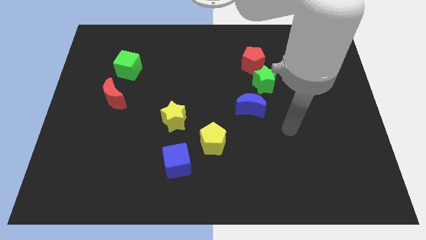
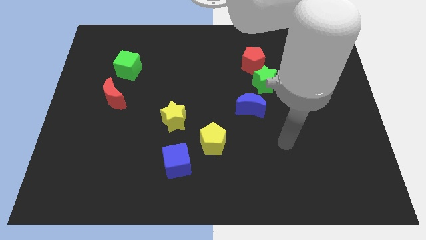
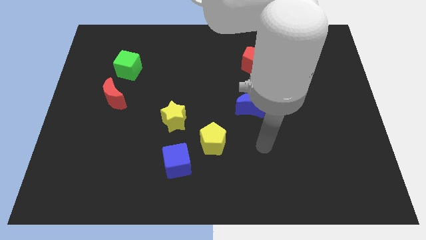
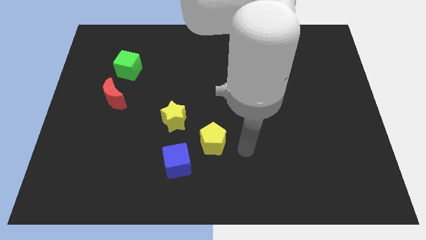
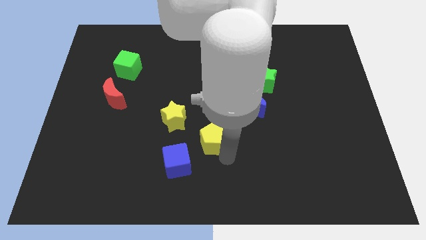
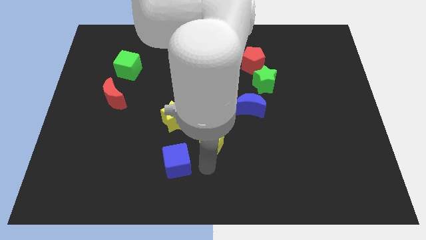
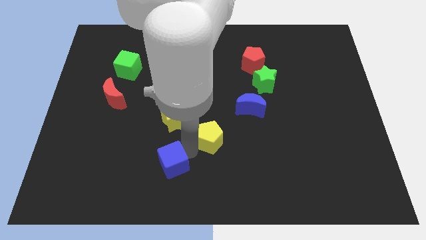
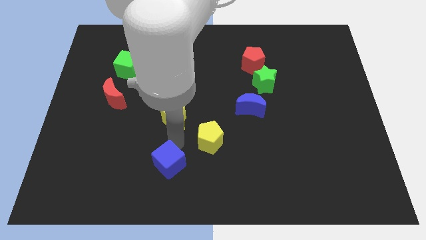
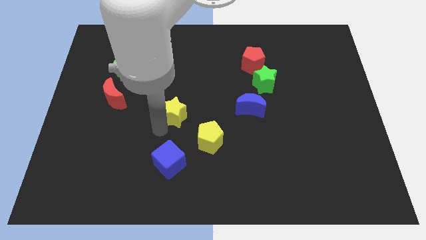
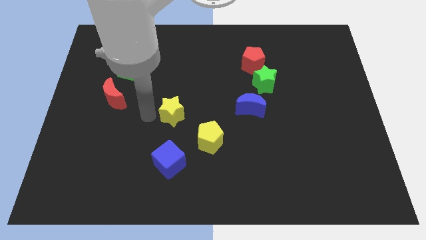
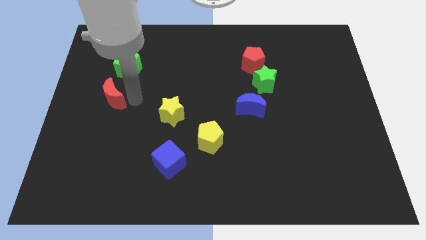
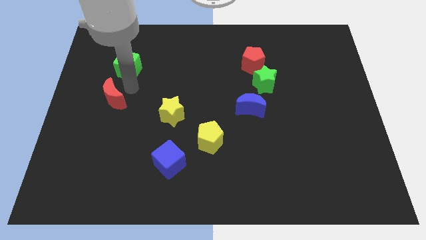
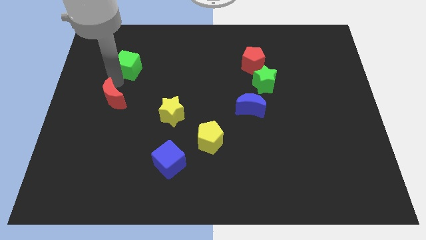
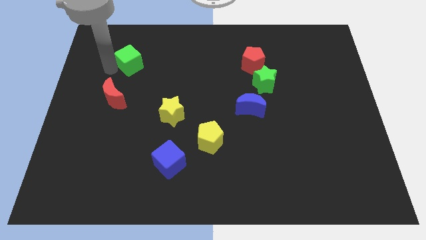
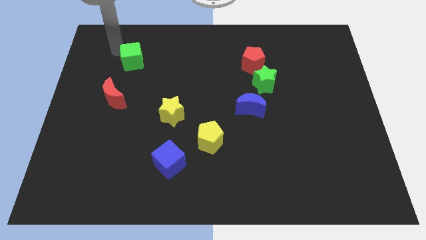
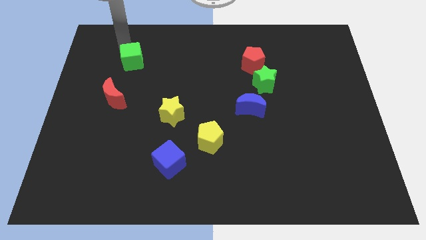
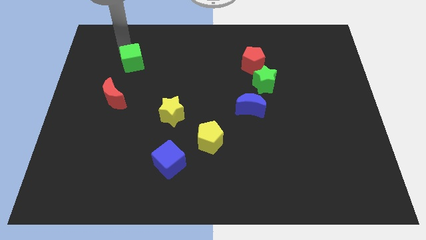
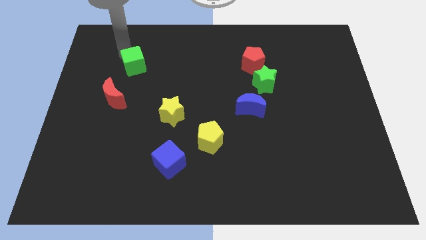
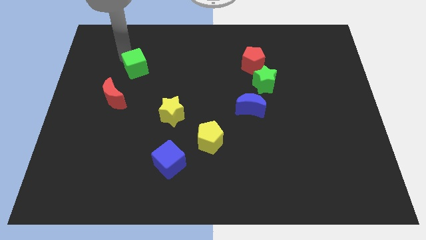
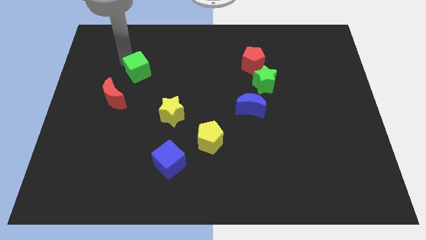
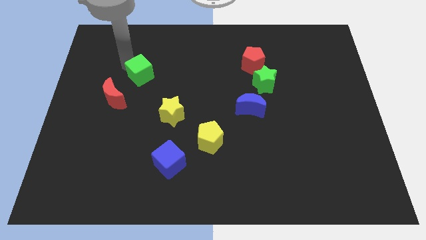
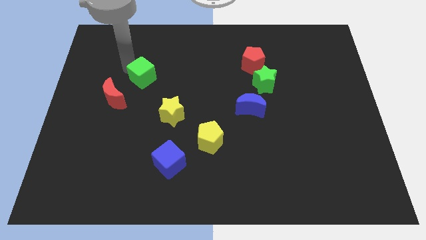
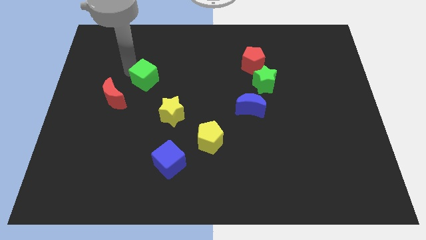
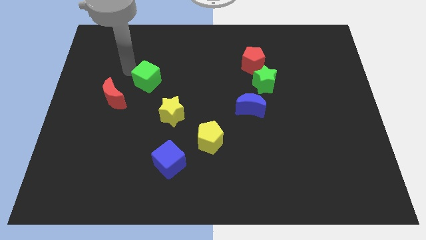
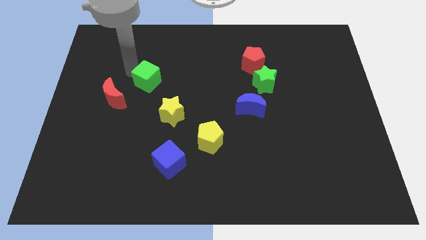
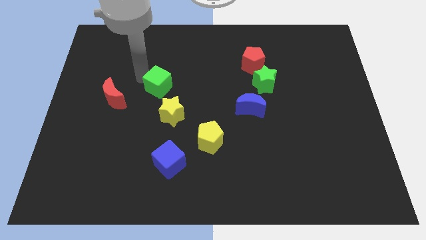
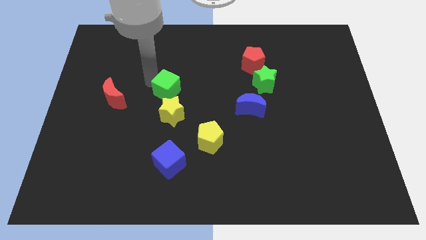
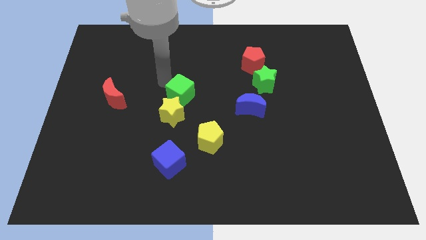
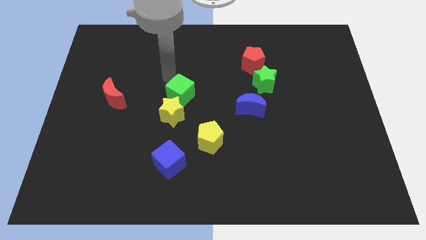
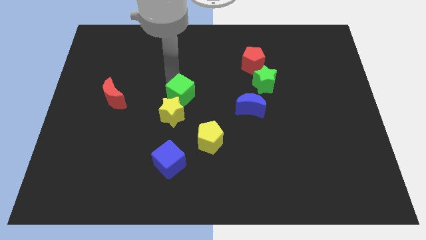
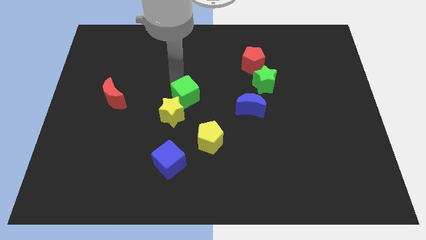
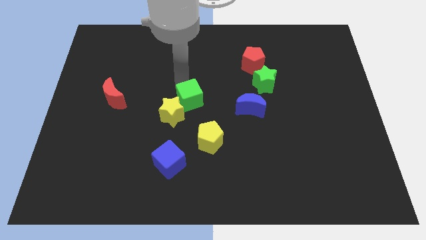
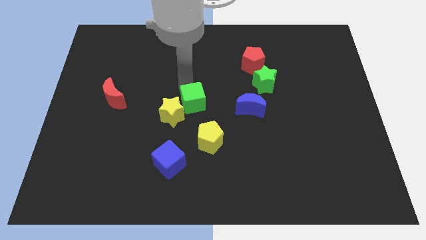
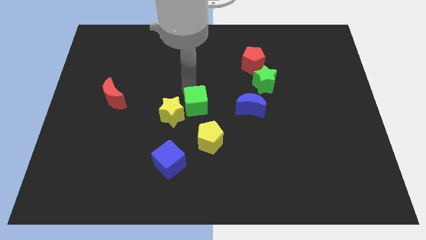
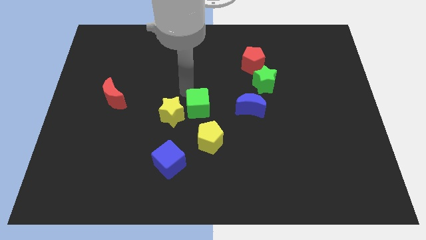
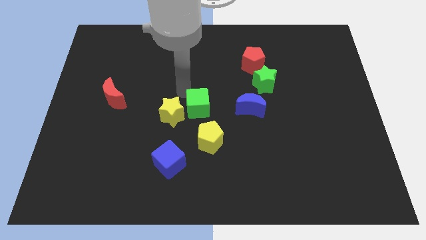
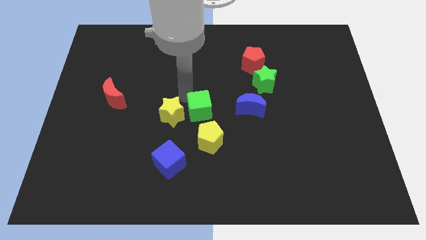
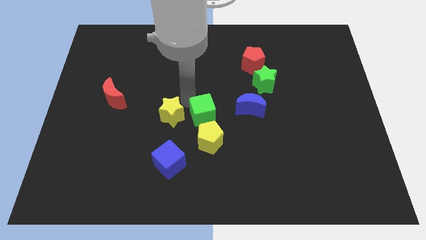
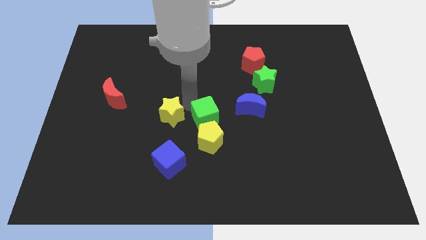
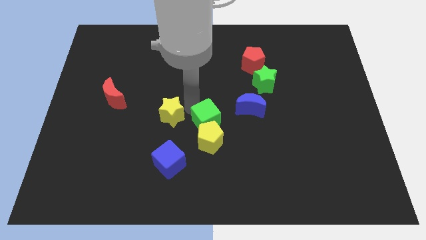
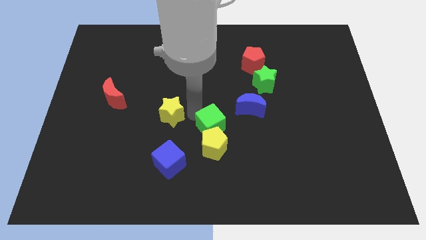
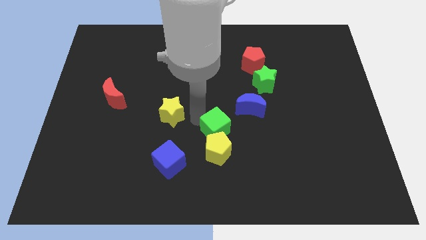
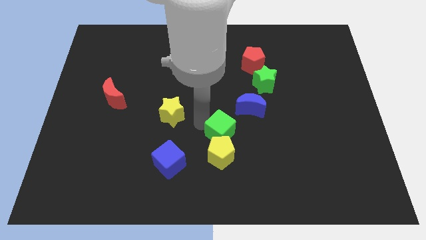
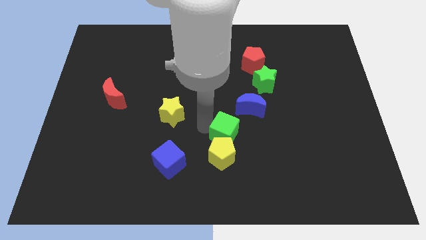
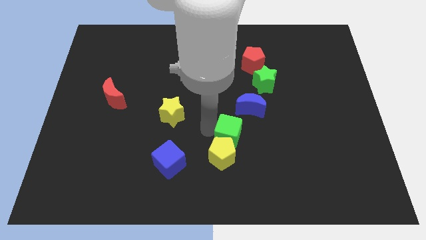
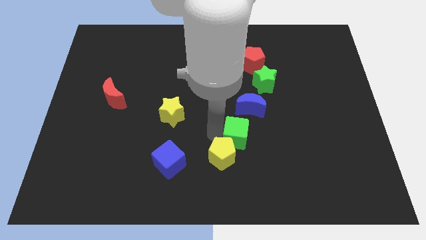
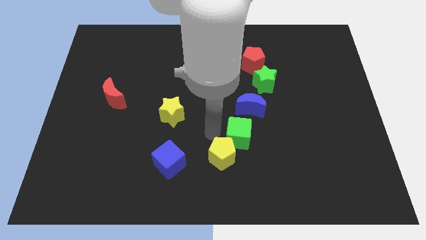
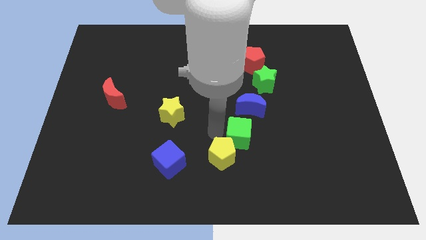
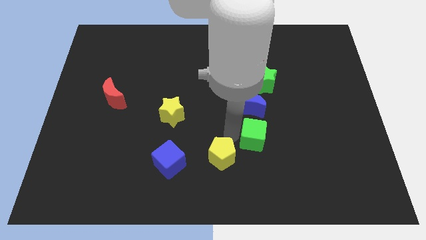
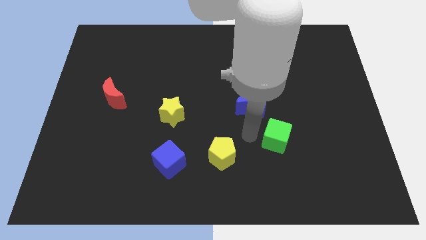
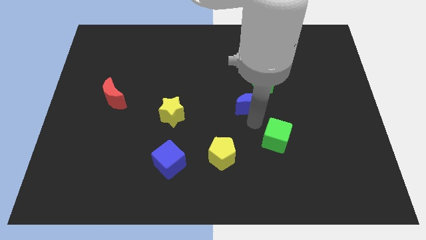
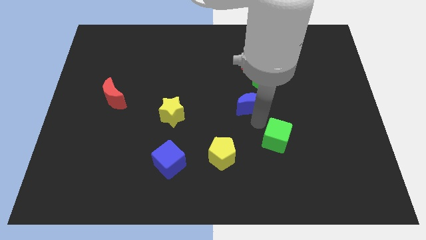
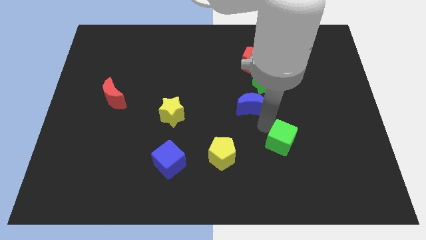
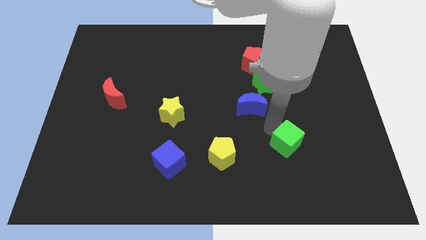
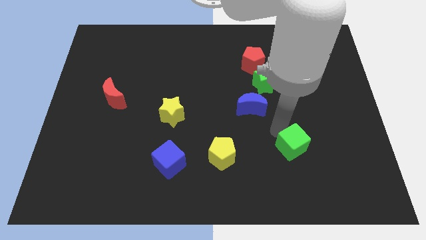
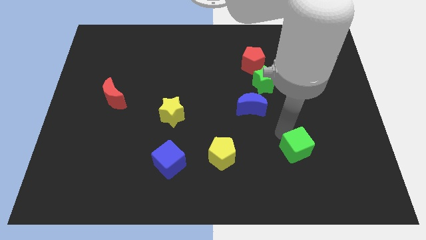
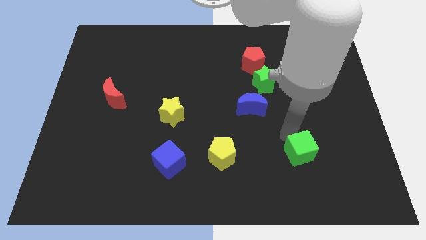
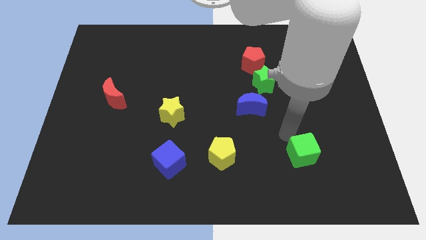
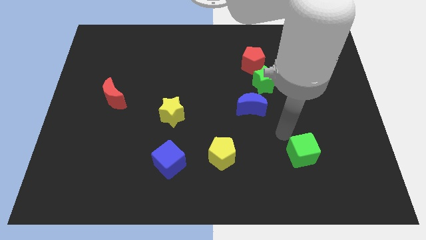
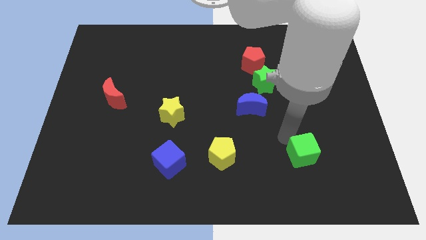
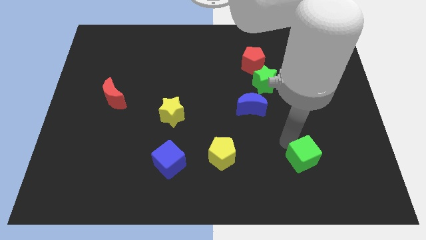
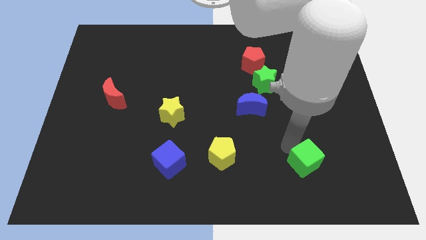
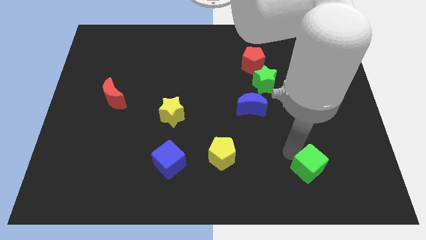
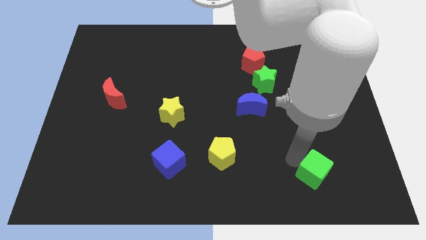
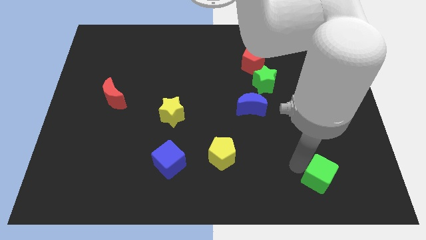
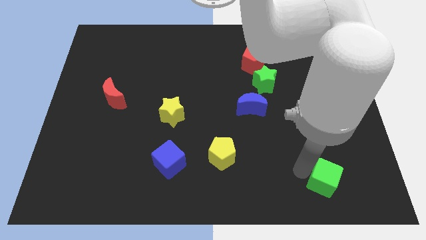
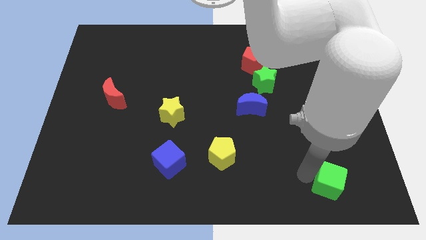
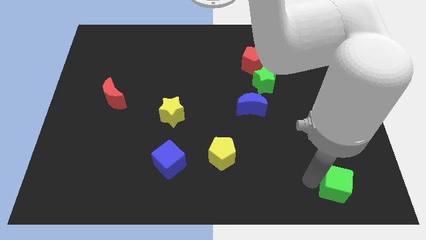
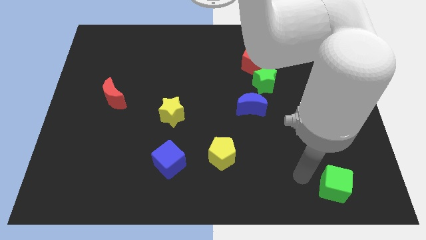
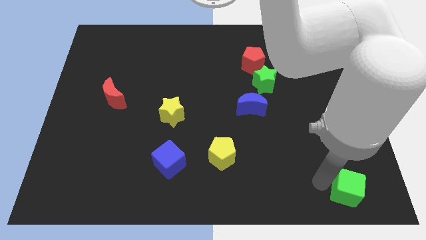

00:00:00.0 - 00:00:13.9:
slide the green cube to the bottom right
